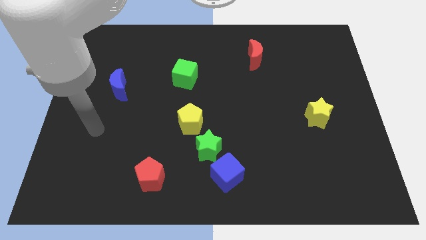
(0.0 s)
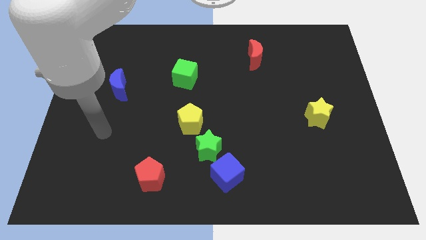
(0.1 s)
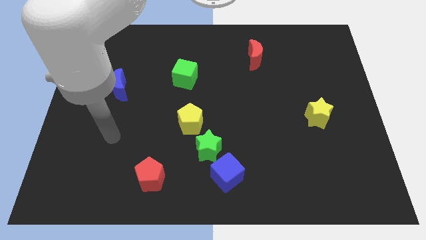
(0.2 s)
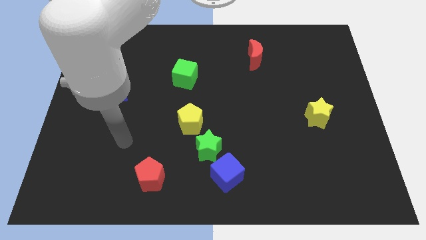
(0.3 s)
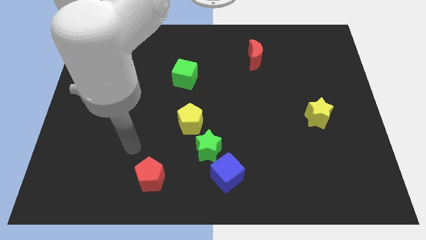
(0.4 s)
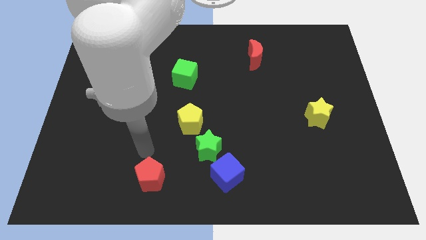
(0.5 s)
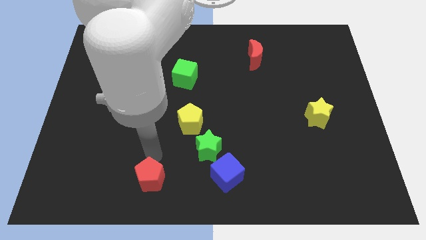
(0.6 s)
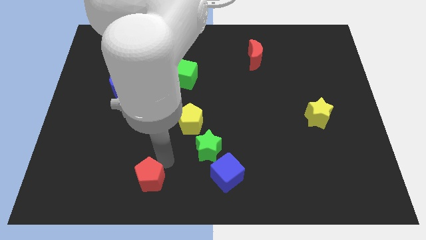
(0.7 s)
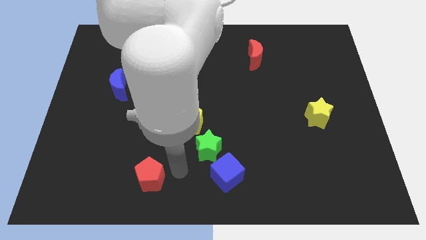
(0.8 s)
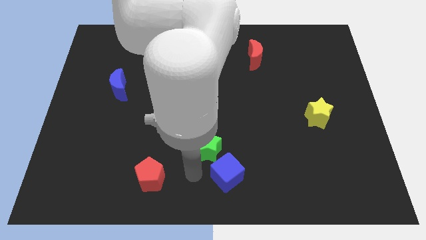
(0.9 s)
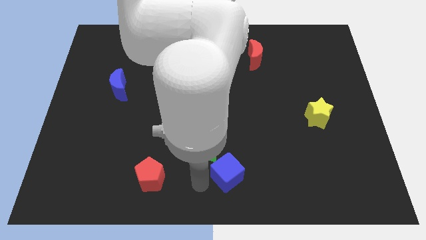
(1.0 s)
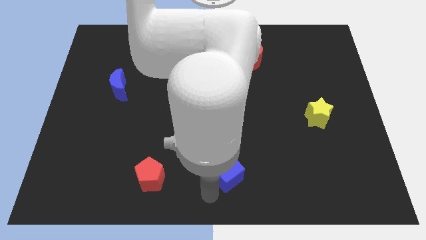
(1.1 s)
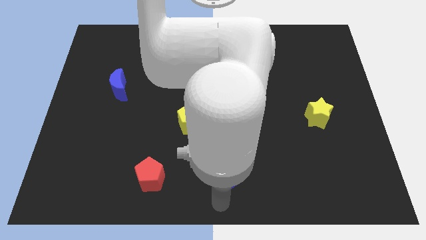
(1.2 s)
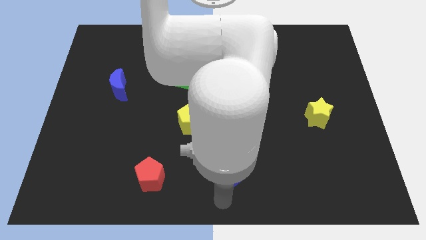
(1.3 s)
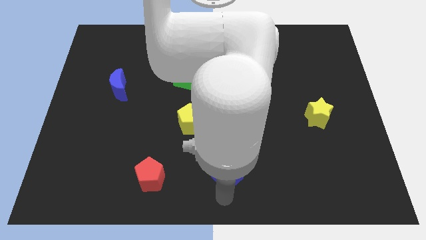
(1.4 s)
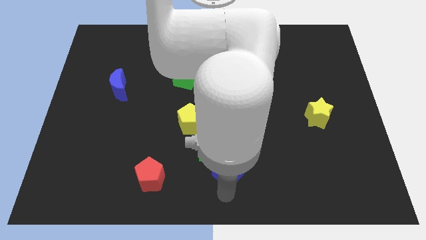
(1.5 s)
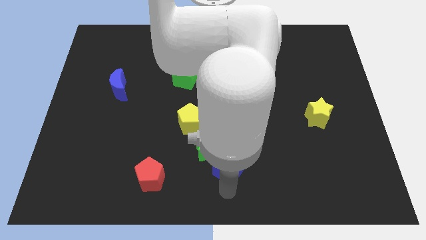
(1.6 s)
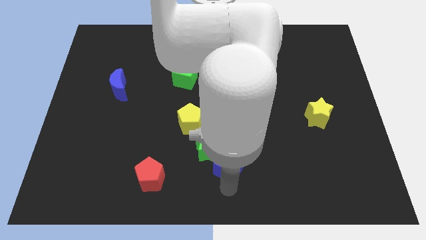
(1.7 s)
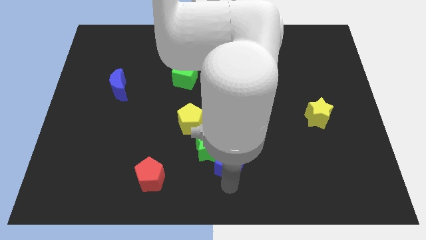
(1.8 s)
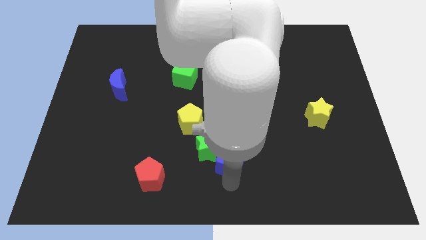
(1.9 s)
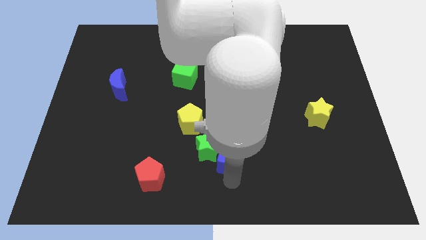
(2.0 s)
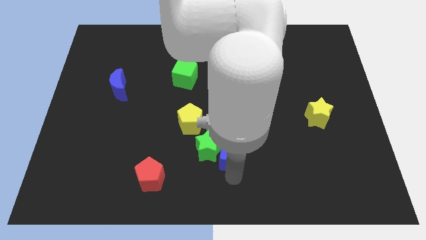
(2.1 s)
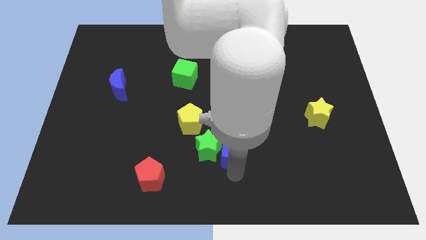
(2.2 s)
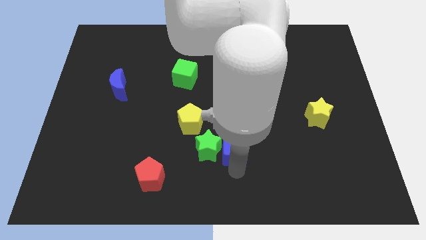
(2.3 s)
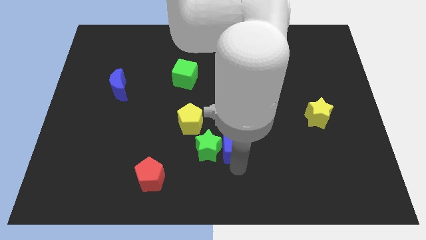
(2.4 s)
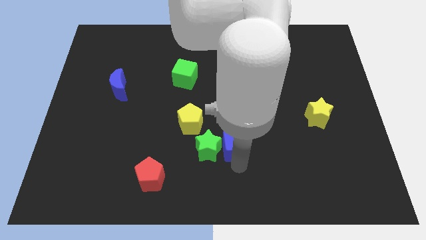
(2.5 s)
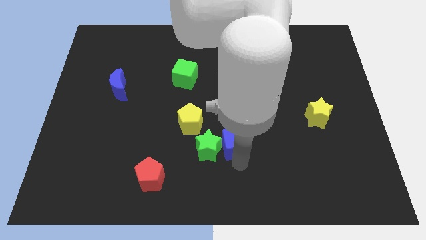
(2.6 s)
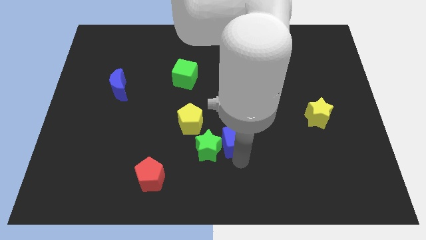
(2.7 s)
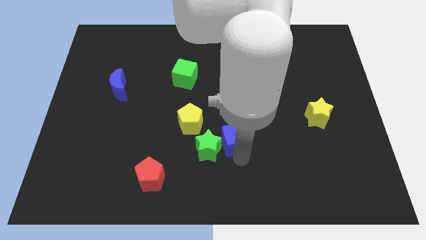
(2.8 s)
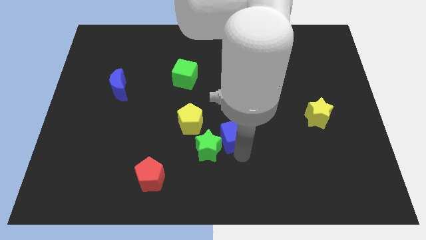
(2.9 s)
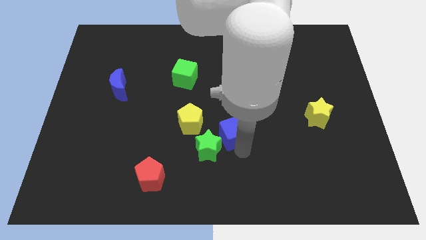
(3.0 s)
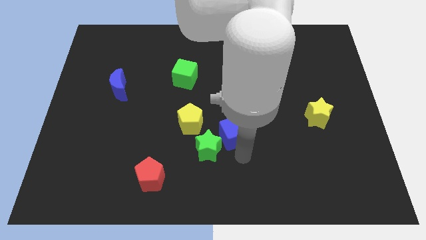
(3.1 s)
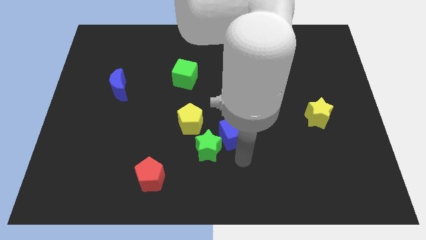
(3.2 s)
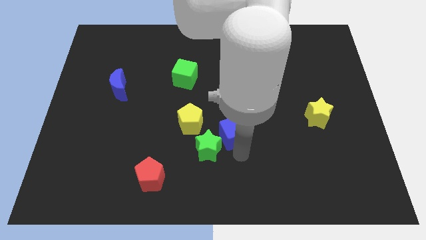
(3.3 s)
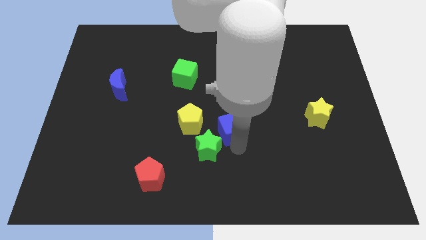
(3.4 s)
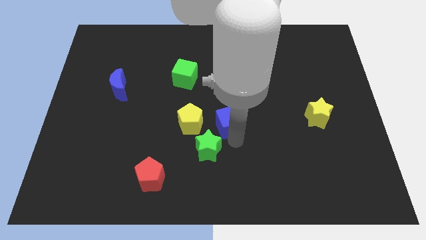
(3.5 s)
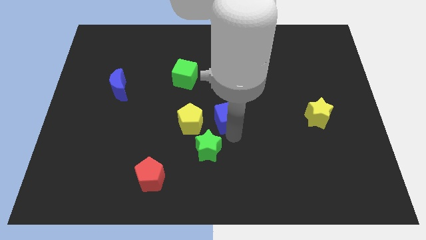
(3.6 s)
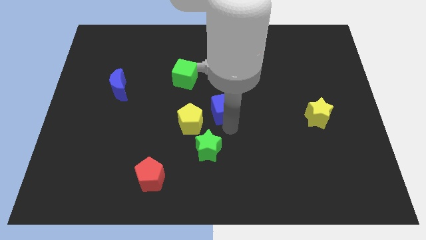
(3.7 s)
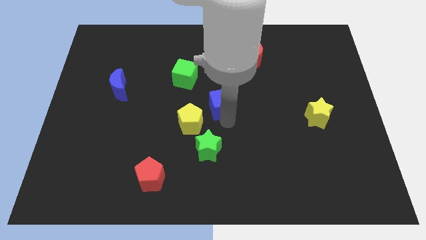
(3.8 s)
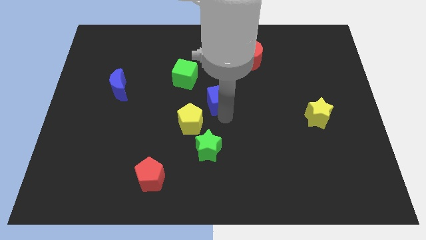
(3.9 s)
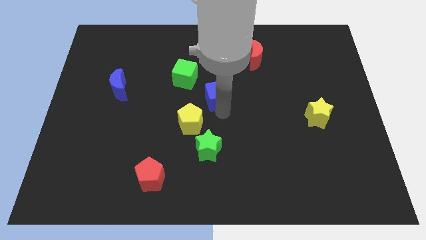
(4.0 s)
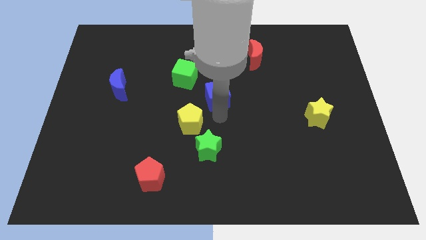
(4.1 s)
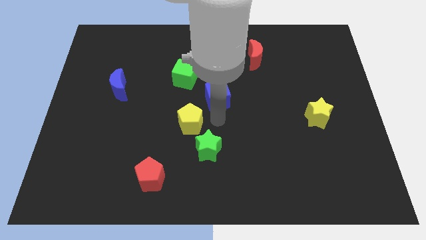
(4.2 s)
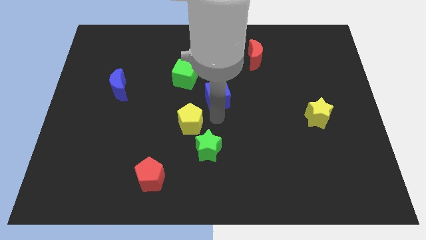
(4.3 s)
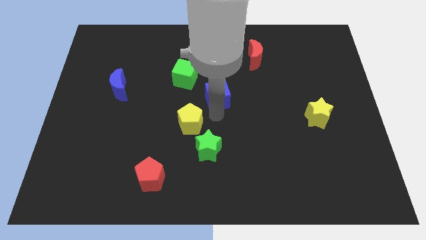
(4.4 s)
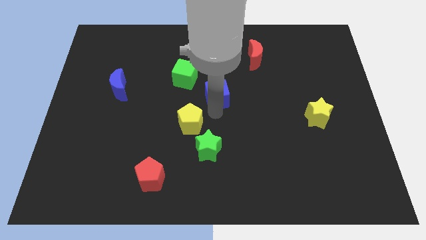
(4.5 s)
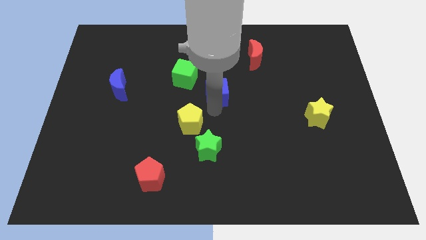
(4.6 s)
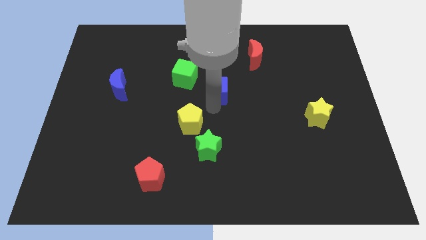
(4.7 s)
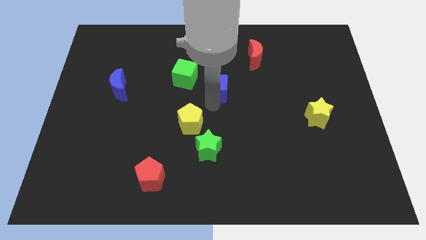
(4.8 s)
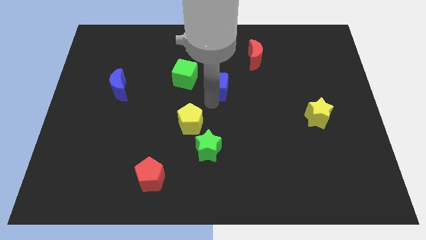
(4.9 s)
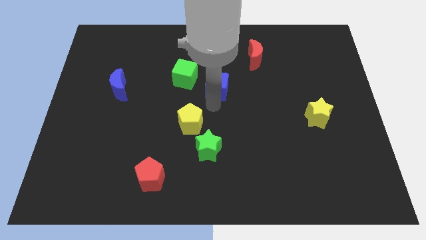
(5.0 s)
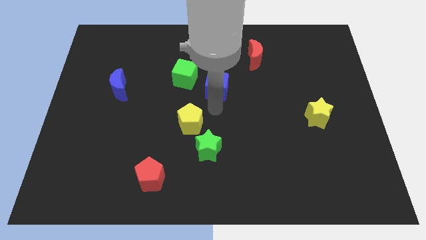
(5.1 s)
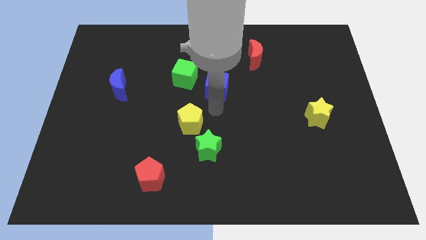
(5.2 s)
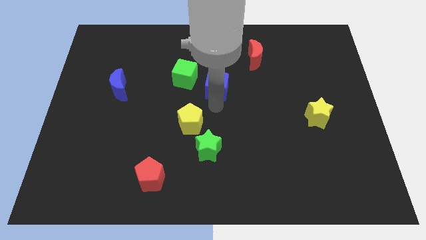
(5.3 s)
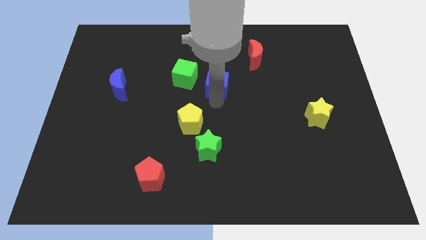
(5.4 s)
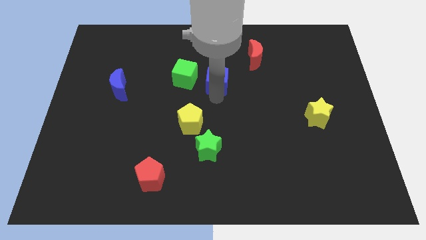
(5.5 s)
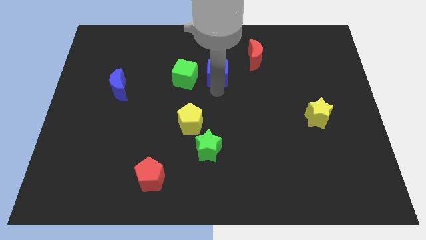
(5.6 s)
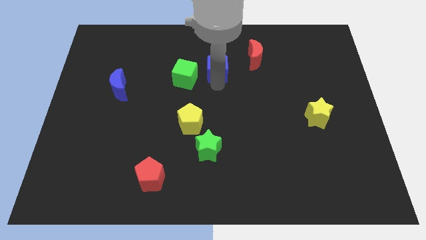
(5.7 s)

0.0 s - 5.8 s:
push the blue cube just left of the red moon

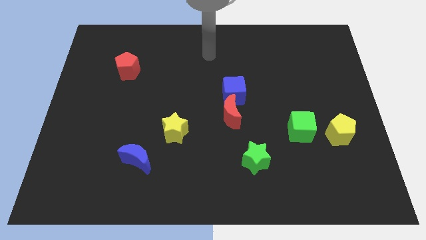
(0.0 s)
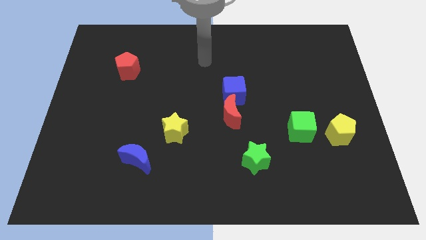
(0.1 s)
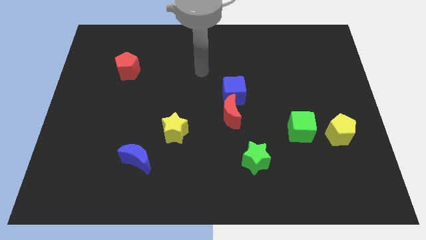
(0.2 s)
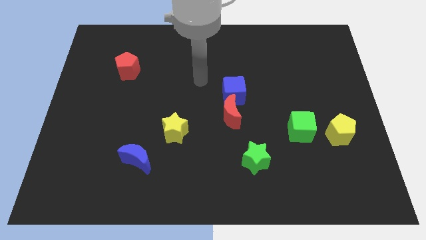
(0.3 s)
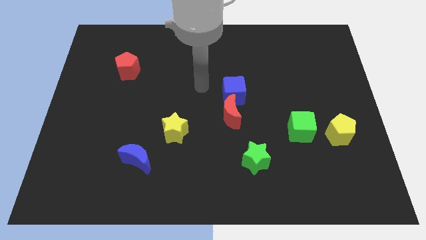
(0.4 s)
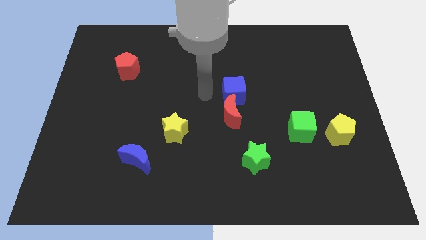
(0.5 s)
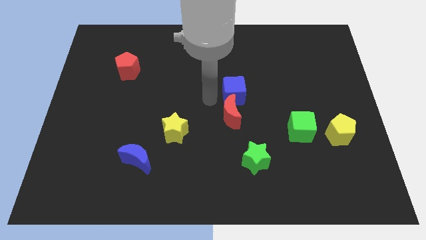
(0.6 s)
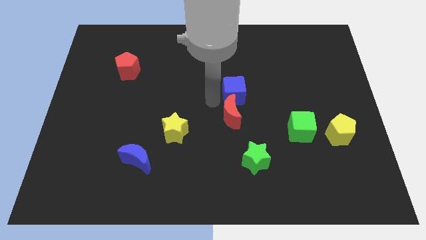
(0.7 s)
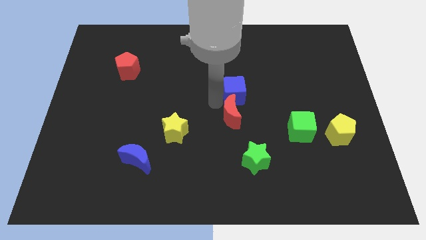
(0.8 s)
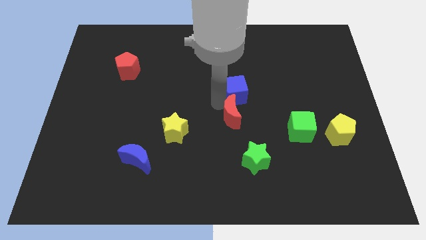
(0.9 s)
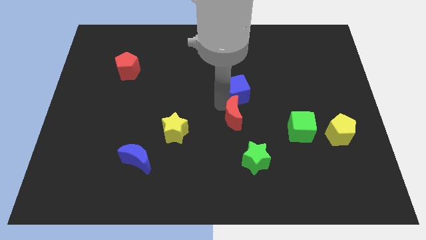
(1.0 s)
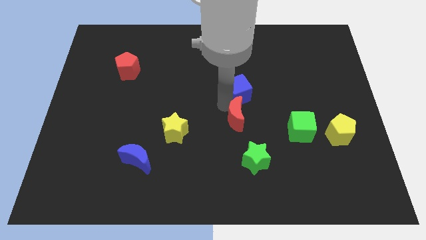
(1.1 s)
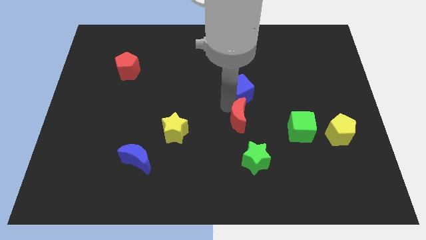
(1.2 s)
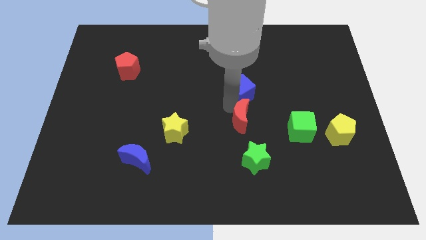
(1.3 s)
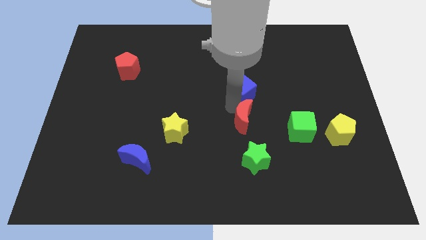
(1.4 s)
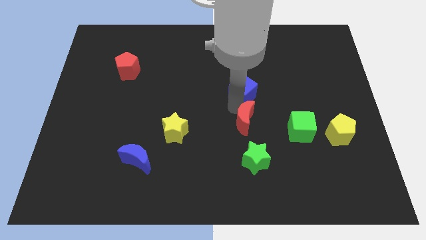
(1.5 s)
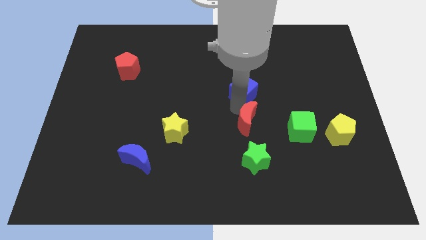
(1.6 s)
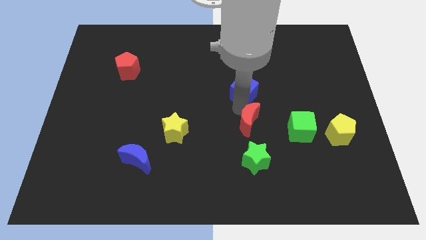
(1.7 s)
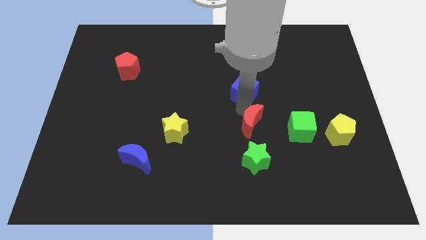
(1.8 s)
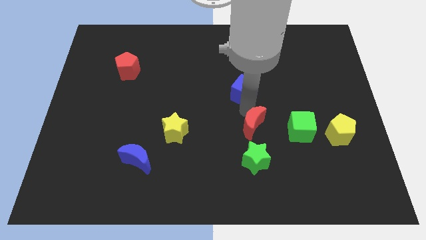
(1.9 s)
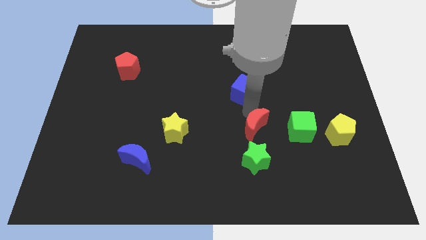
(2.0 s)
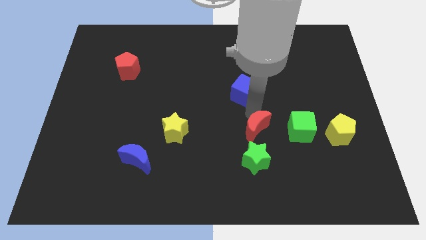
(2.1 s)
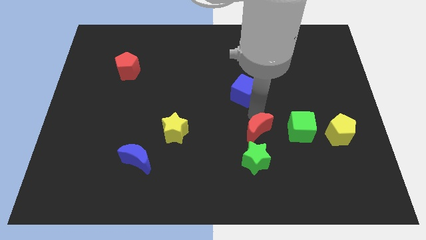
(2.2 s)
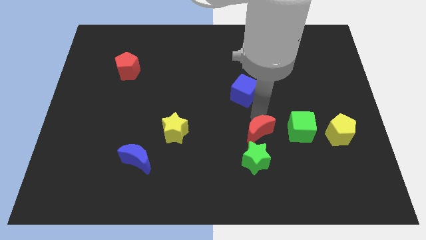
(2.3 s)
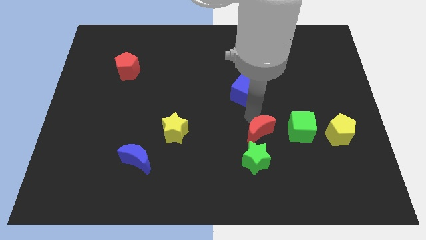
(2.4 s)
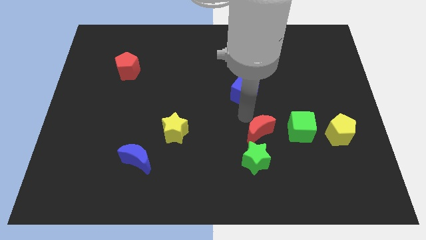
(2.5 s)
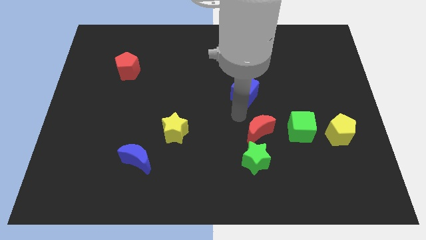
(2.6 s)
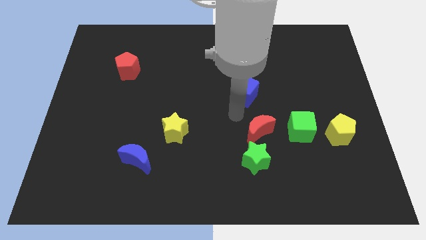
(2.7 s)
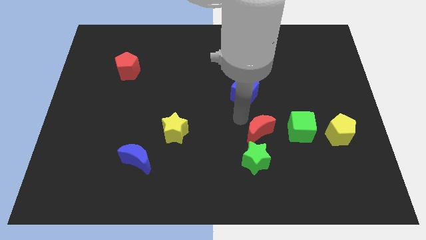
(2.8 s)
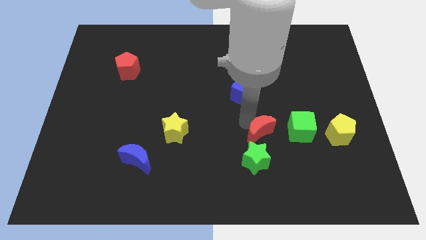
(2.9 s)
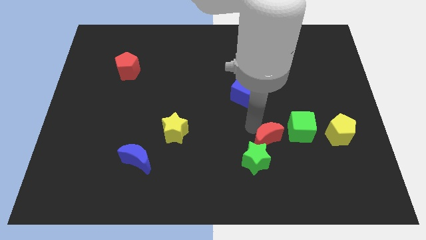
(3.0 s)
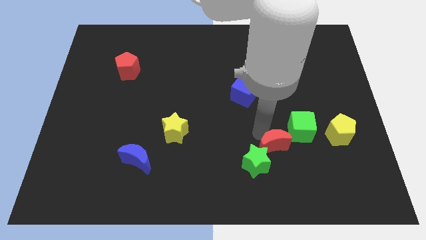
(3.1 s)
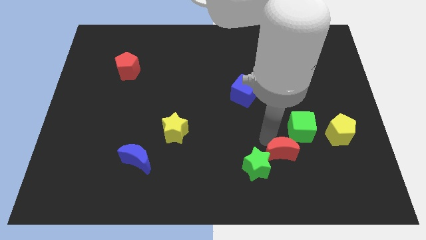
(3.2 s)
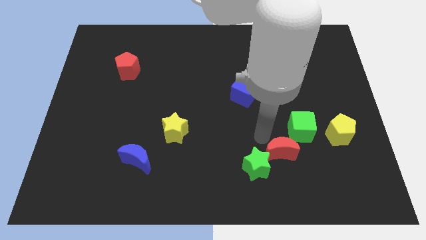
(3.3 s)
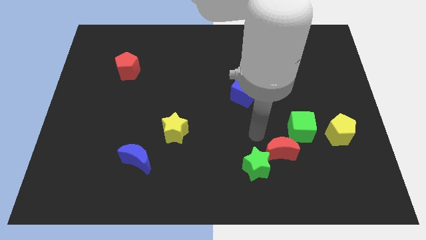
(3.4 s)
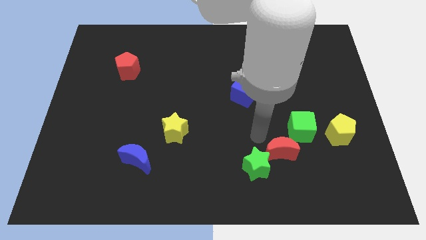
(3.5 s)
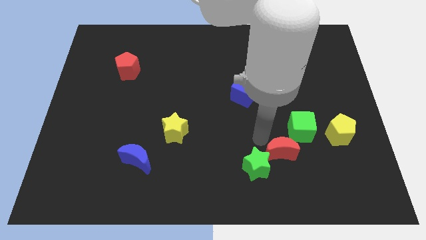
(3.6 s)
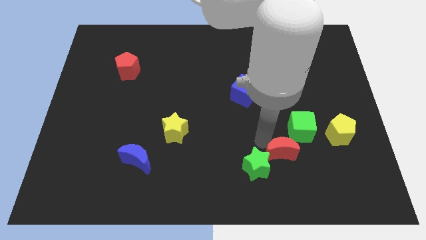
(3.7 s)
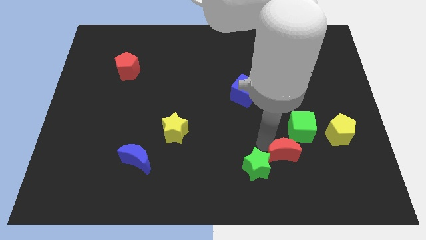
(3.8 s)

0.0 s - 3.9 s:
slide the red moon below the green cube
